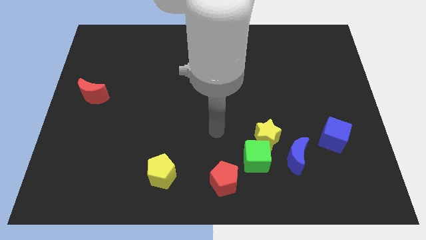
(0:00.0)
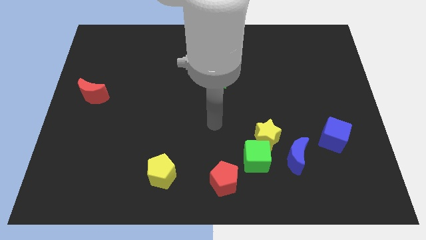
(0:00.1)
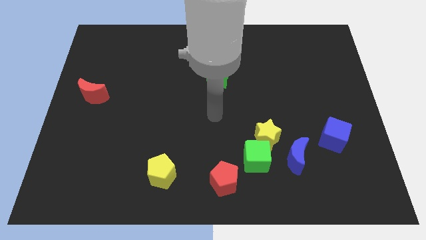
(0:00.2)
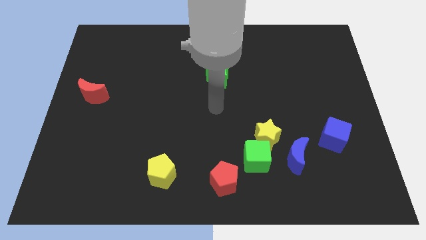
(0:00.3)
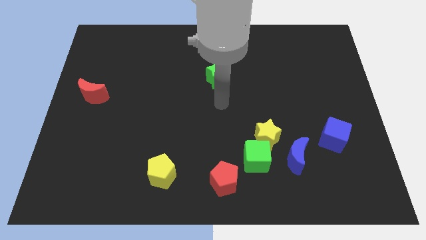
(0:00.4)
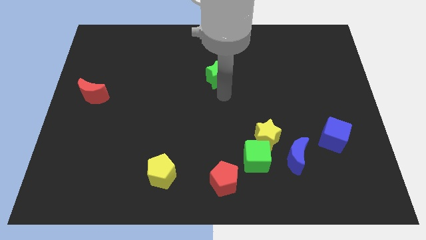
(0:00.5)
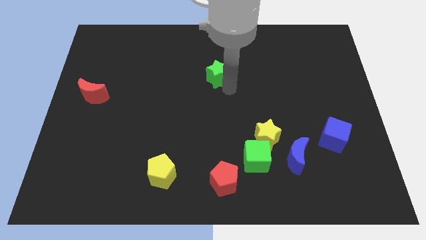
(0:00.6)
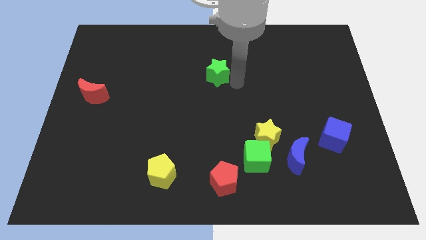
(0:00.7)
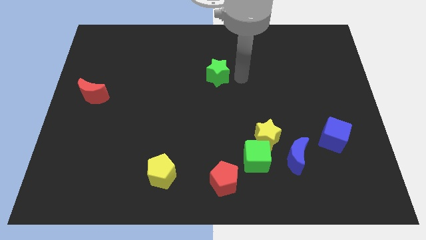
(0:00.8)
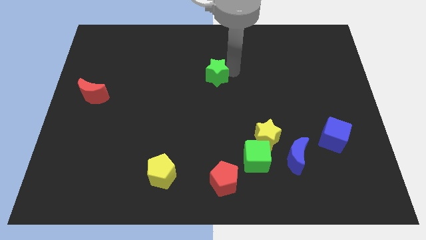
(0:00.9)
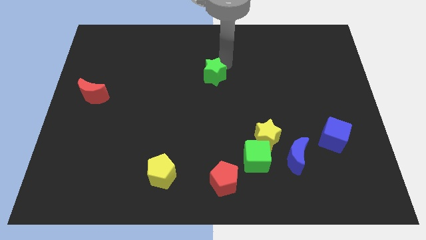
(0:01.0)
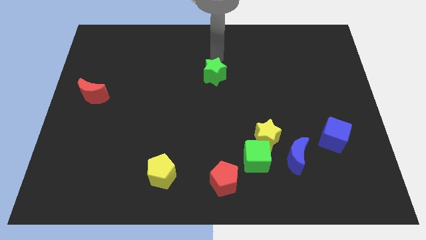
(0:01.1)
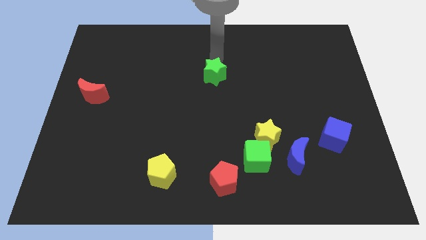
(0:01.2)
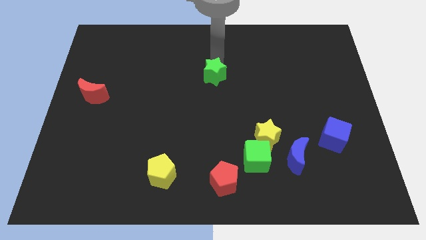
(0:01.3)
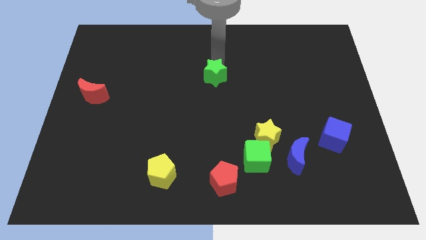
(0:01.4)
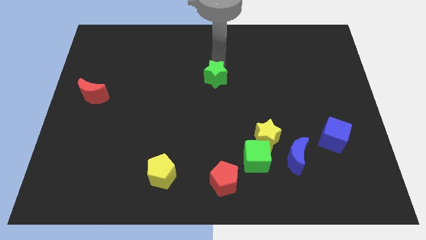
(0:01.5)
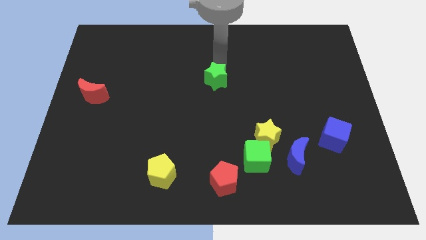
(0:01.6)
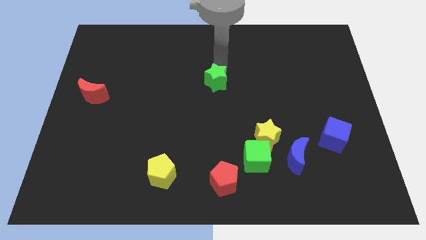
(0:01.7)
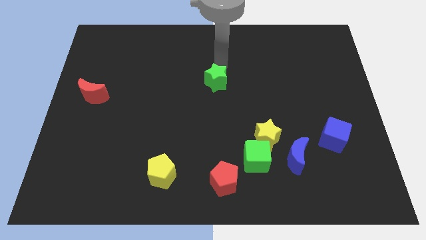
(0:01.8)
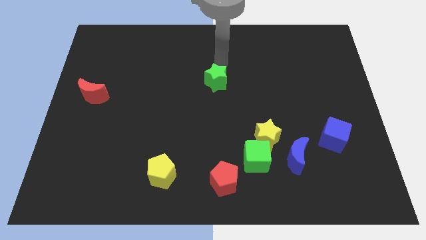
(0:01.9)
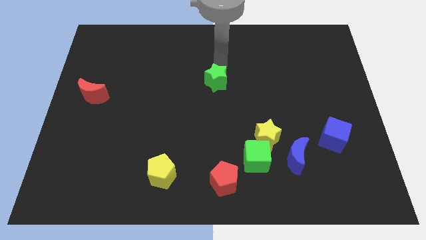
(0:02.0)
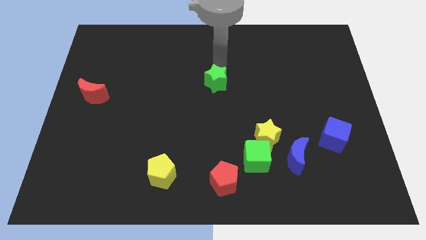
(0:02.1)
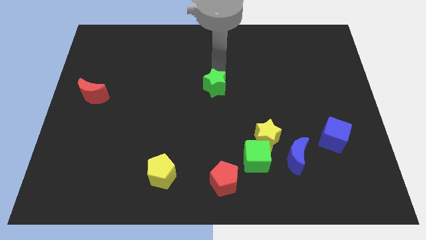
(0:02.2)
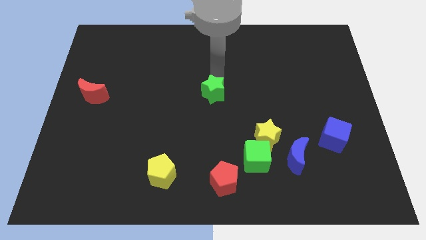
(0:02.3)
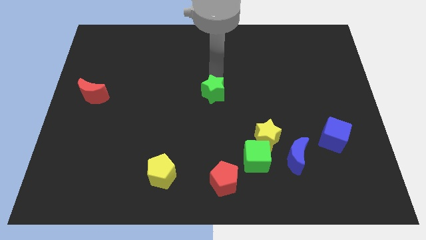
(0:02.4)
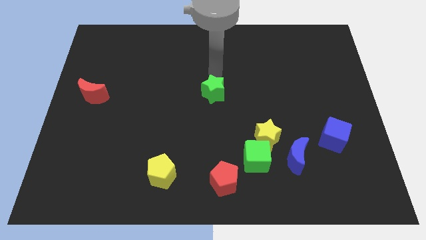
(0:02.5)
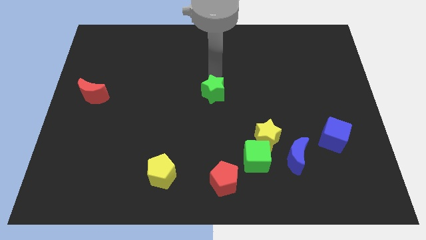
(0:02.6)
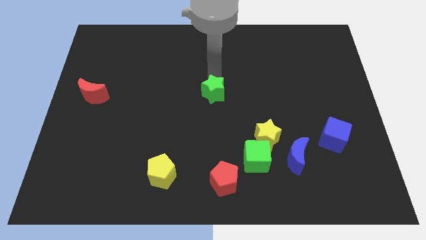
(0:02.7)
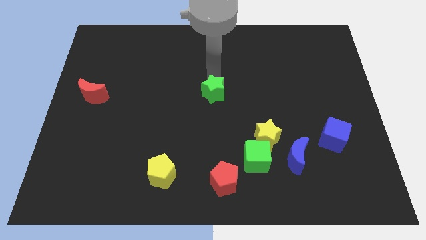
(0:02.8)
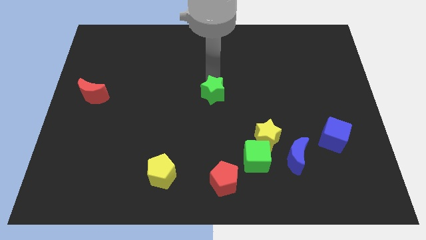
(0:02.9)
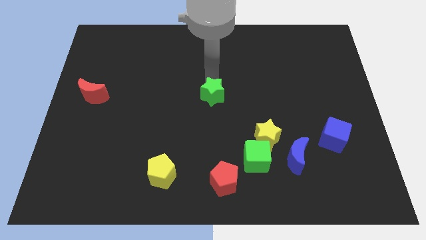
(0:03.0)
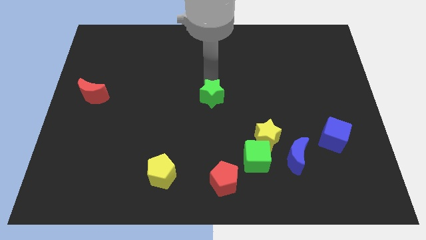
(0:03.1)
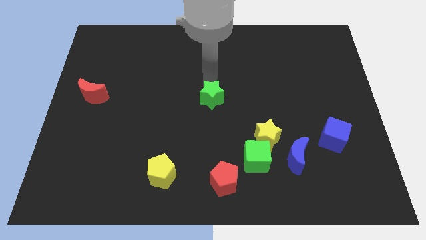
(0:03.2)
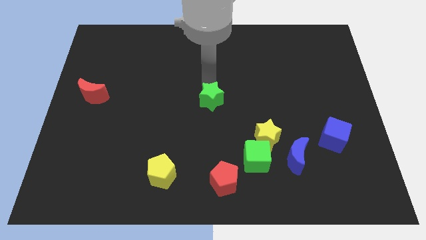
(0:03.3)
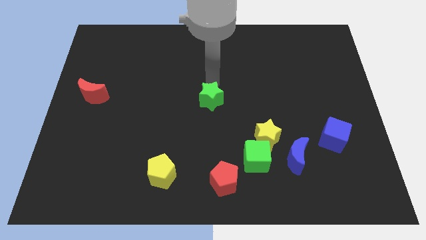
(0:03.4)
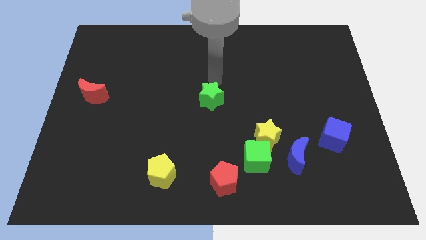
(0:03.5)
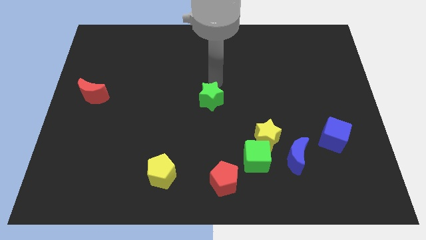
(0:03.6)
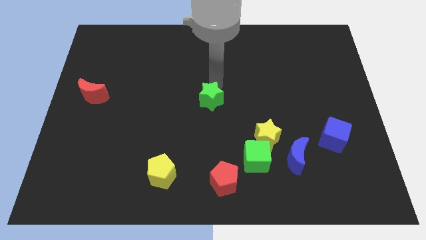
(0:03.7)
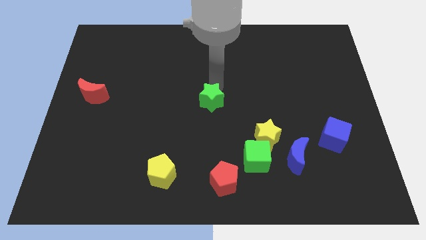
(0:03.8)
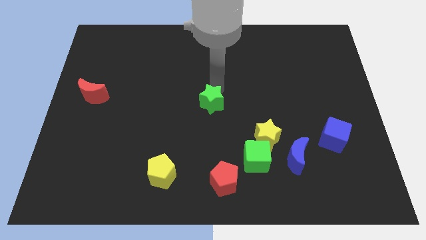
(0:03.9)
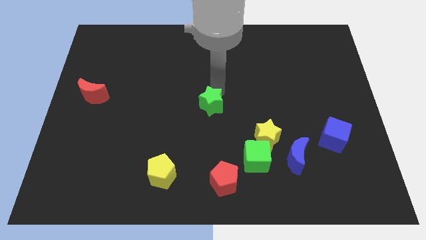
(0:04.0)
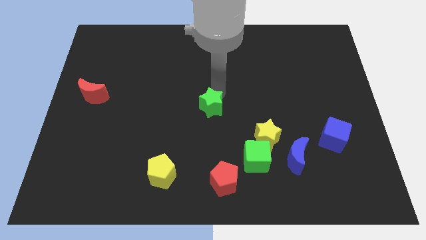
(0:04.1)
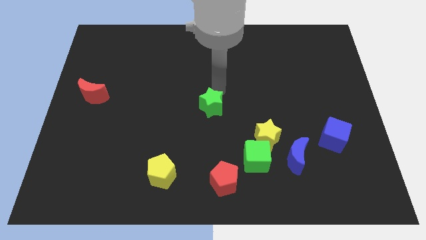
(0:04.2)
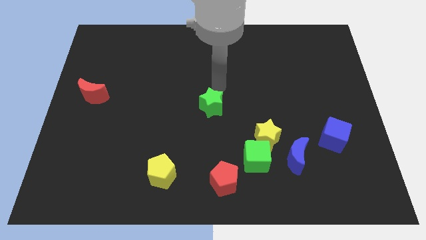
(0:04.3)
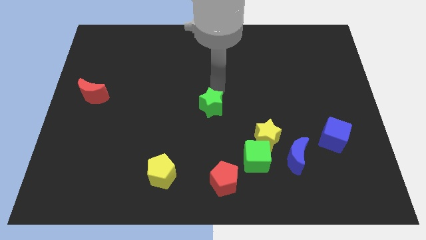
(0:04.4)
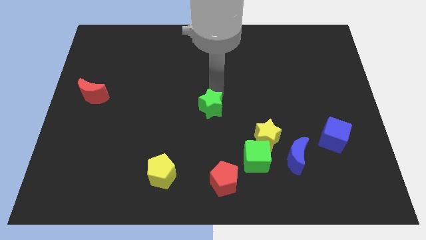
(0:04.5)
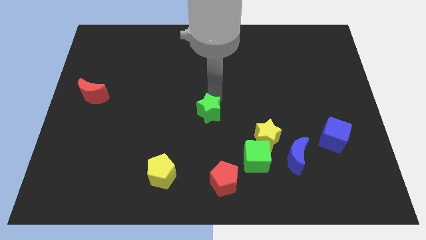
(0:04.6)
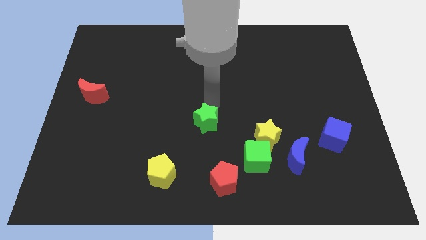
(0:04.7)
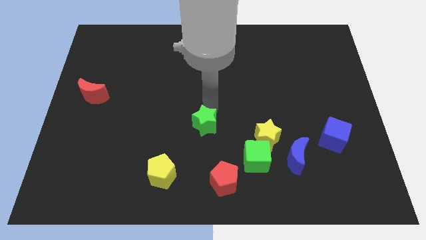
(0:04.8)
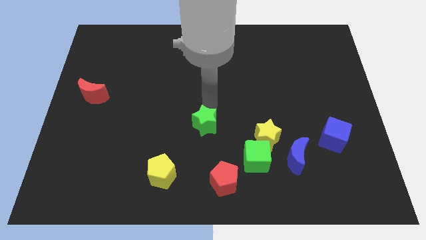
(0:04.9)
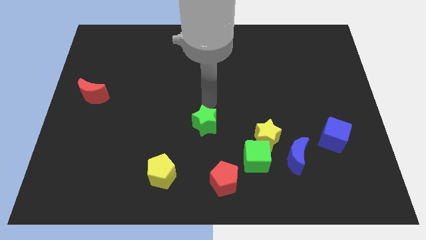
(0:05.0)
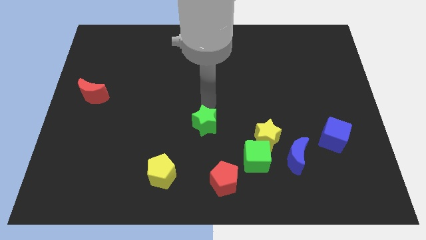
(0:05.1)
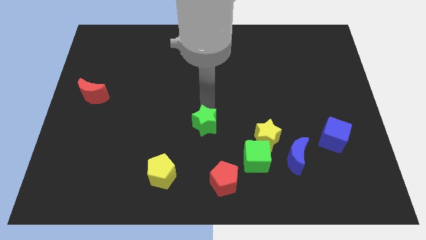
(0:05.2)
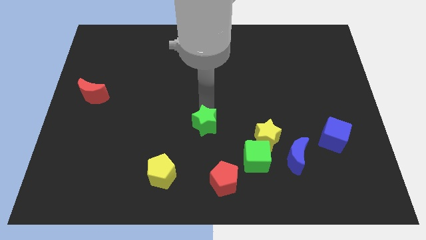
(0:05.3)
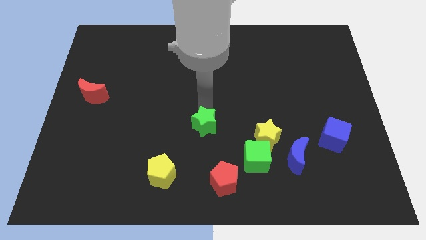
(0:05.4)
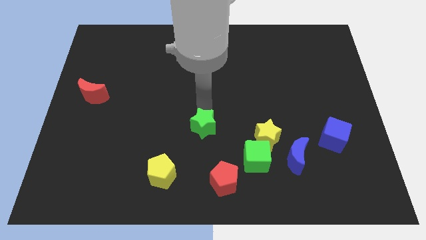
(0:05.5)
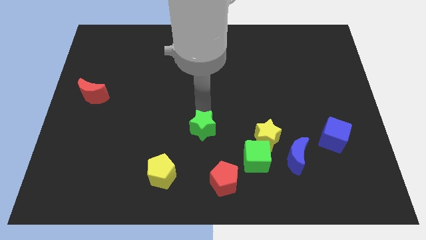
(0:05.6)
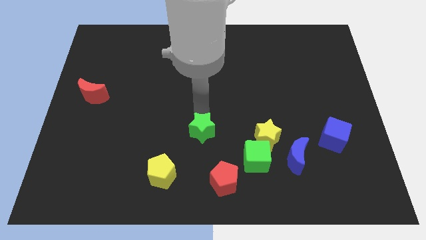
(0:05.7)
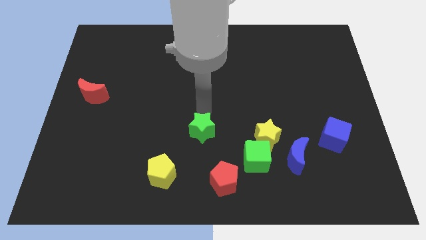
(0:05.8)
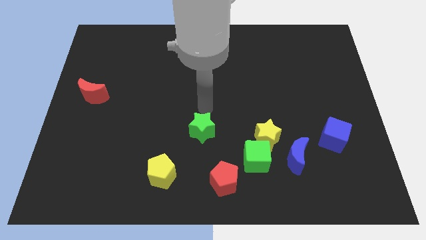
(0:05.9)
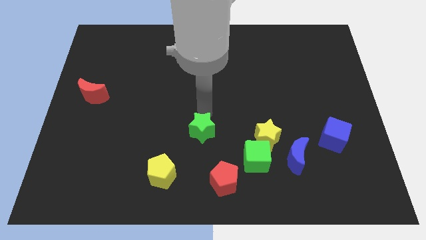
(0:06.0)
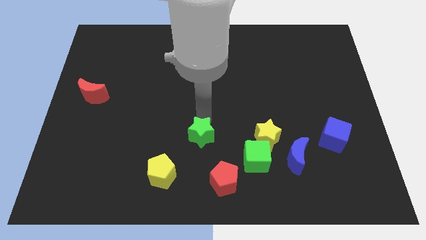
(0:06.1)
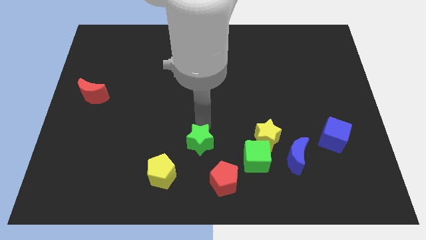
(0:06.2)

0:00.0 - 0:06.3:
put the green star to the top left side of the red pentagon
